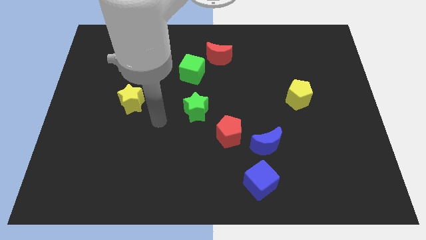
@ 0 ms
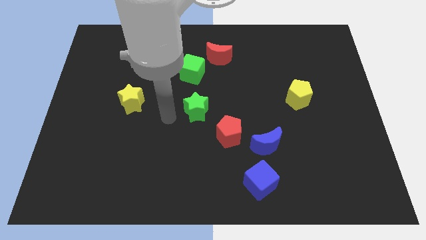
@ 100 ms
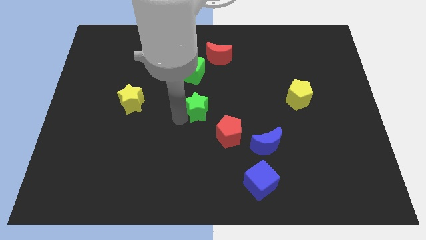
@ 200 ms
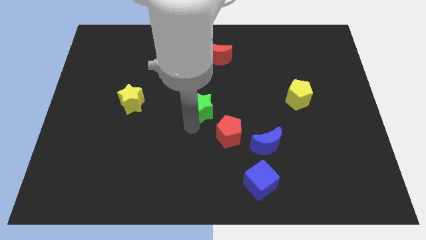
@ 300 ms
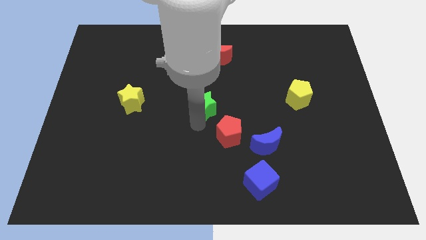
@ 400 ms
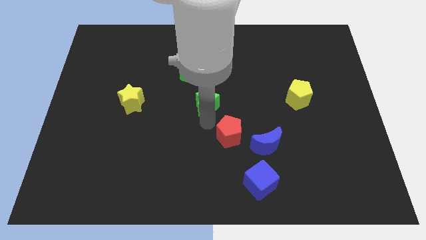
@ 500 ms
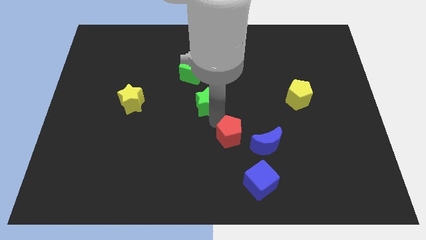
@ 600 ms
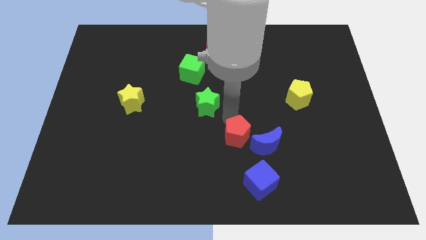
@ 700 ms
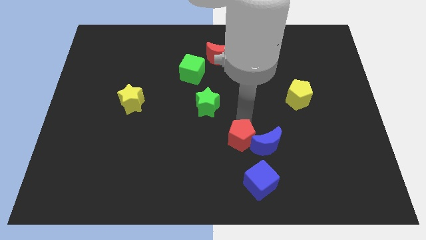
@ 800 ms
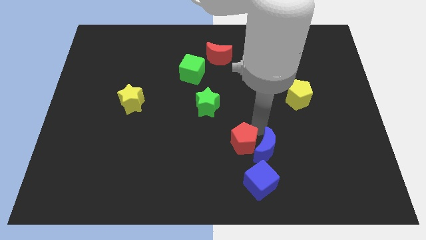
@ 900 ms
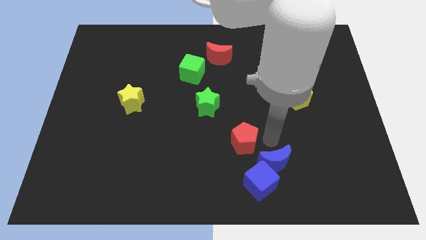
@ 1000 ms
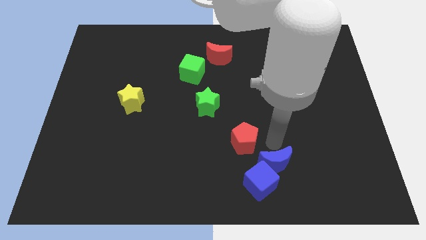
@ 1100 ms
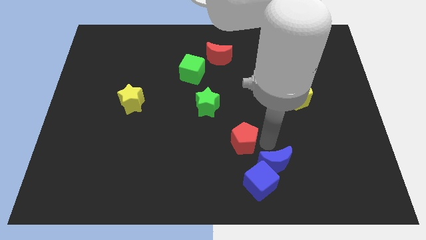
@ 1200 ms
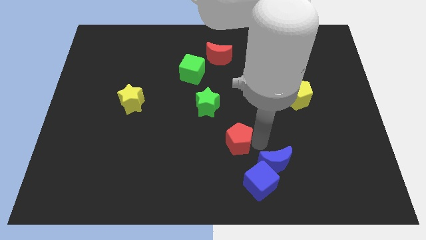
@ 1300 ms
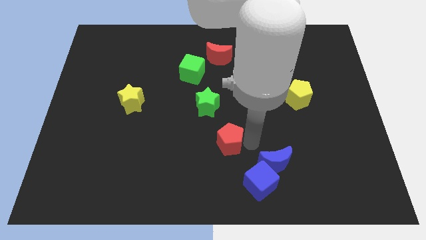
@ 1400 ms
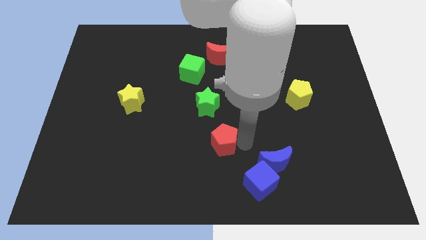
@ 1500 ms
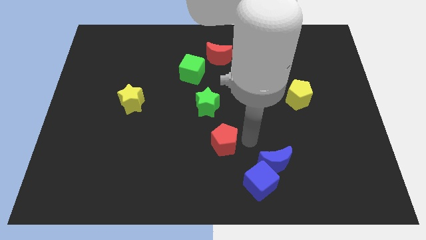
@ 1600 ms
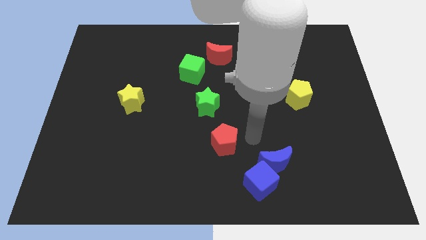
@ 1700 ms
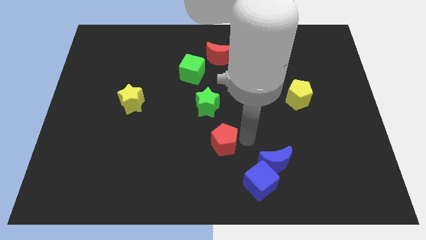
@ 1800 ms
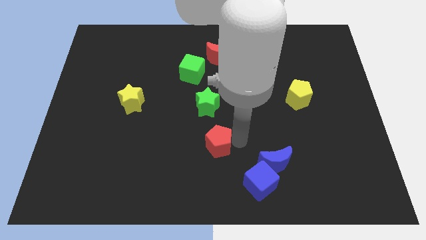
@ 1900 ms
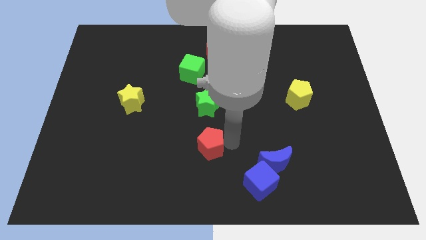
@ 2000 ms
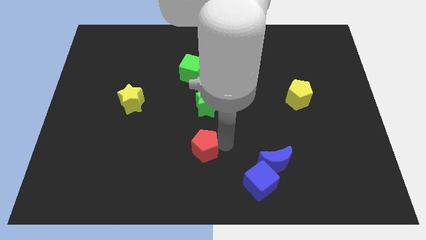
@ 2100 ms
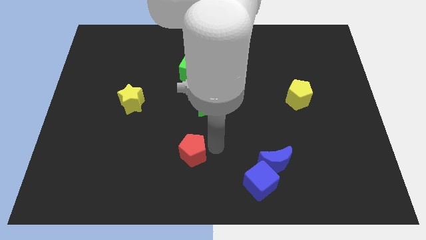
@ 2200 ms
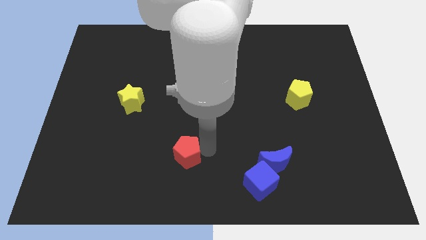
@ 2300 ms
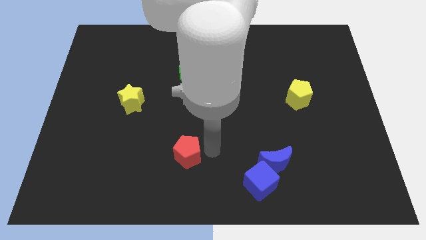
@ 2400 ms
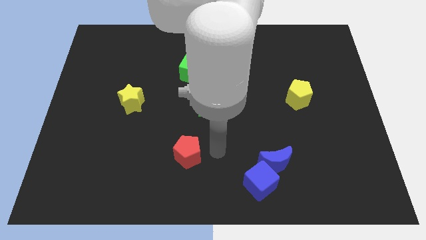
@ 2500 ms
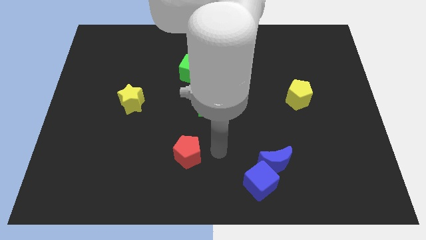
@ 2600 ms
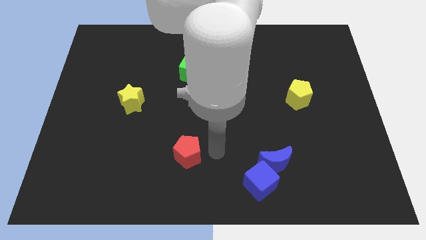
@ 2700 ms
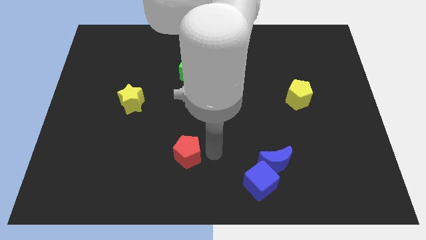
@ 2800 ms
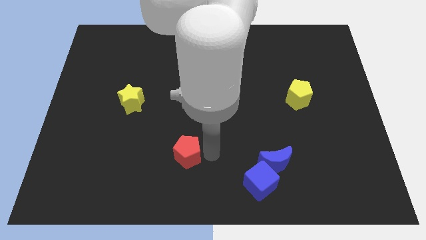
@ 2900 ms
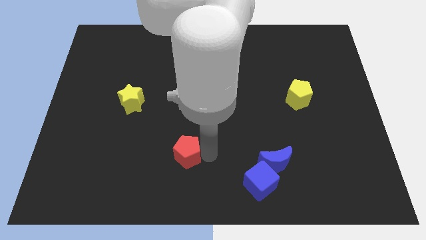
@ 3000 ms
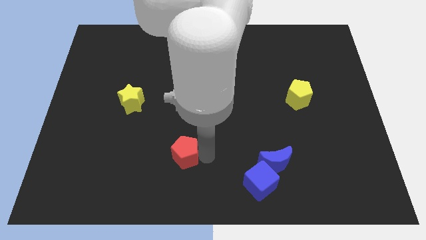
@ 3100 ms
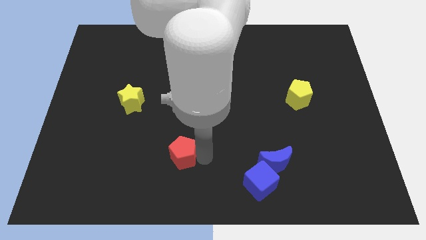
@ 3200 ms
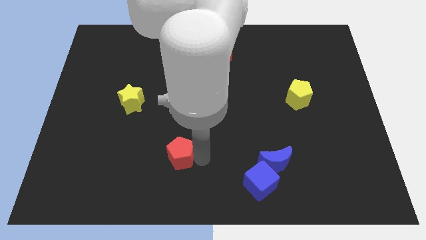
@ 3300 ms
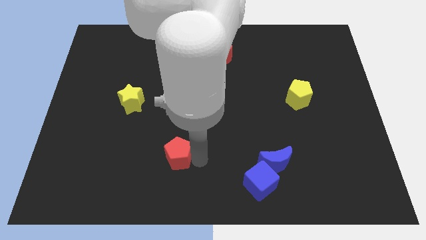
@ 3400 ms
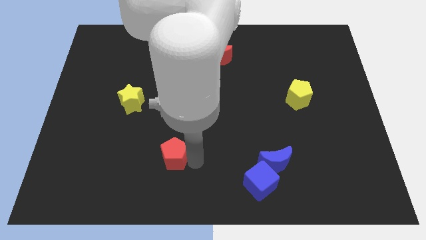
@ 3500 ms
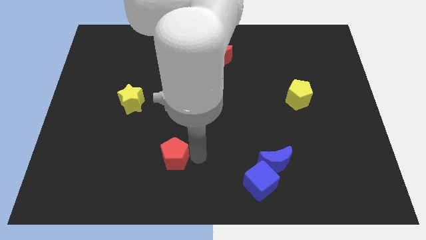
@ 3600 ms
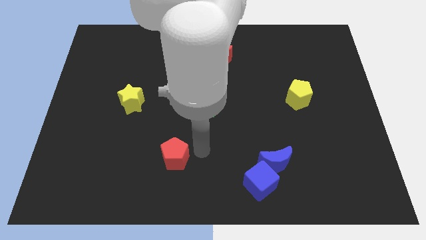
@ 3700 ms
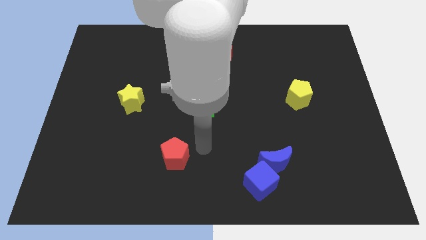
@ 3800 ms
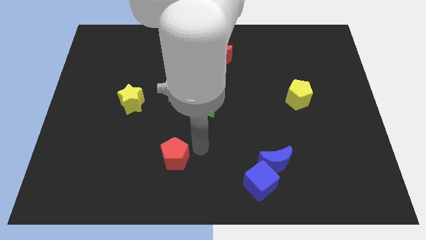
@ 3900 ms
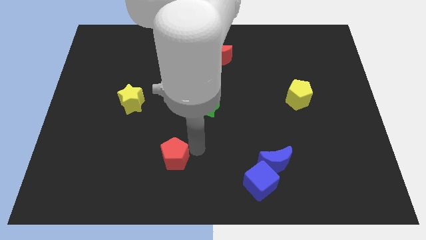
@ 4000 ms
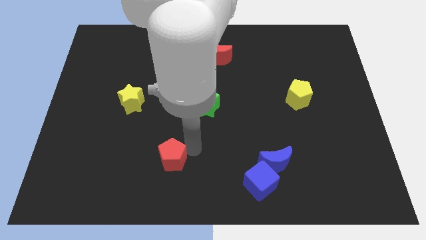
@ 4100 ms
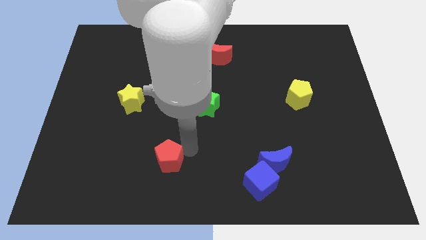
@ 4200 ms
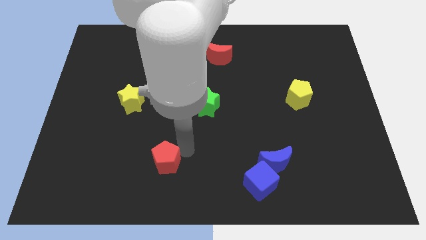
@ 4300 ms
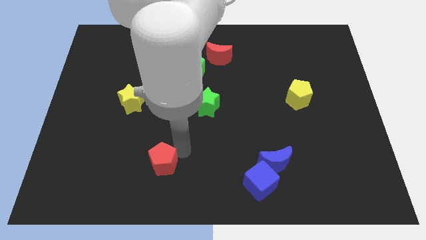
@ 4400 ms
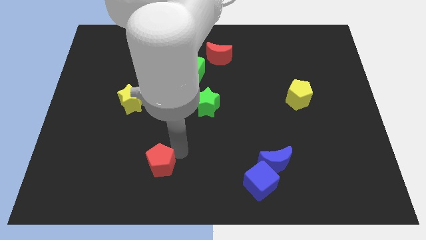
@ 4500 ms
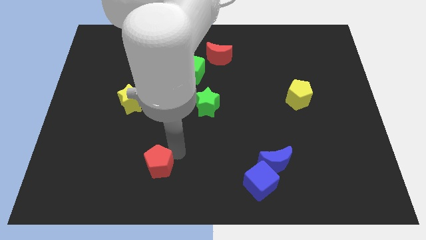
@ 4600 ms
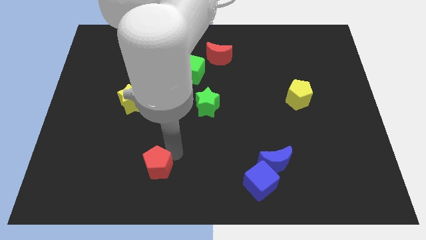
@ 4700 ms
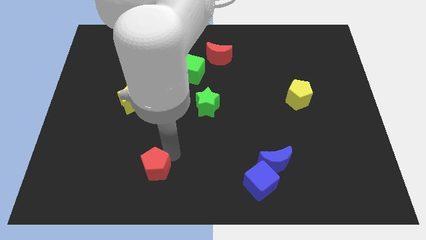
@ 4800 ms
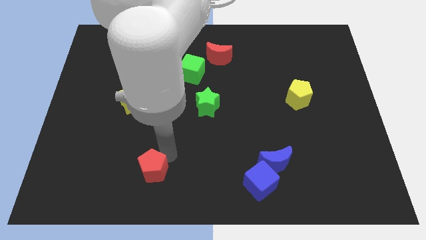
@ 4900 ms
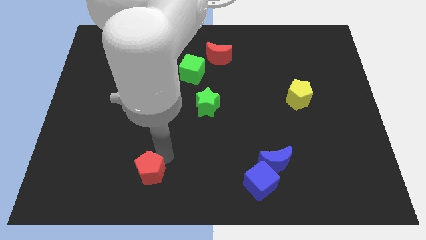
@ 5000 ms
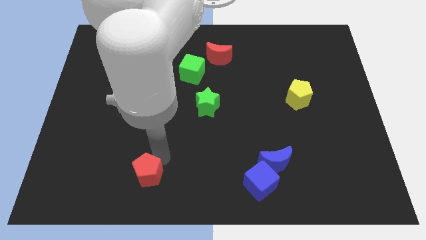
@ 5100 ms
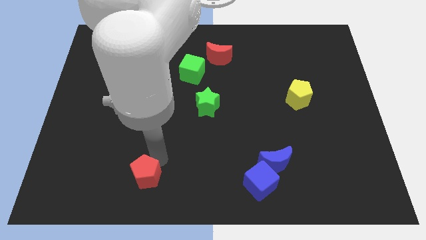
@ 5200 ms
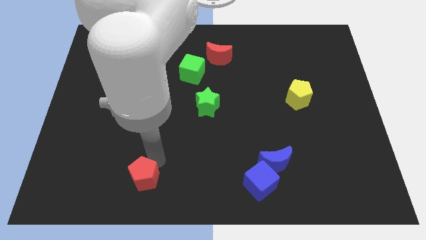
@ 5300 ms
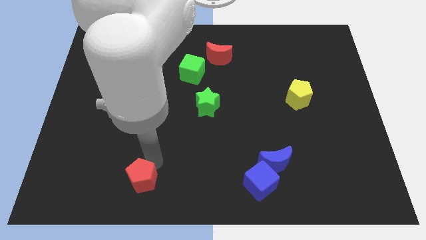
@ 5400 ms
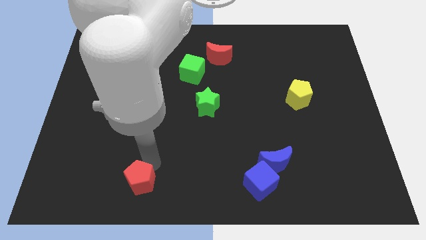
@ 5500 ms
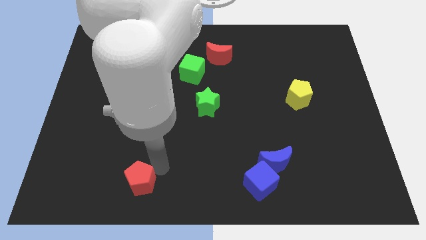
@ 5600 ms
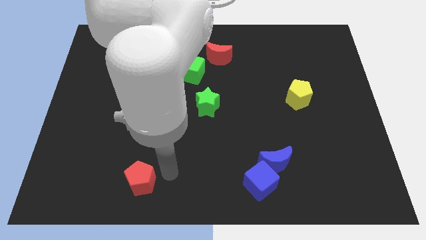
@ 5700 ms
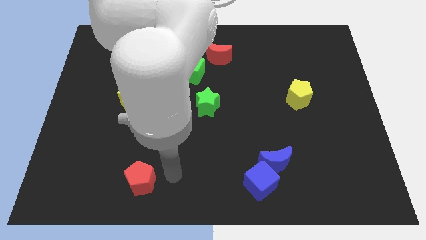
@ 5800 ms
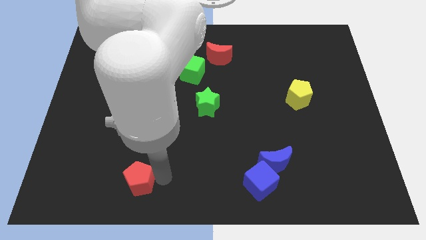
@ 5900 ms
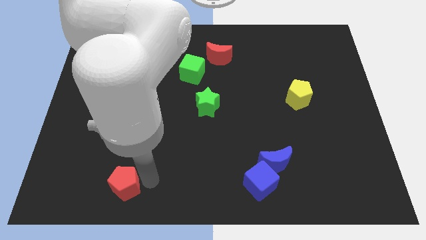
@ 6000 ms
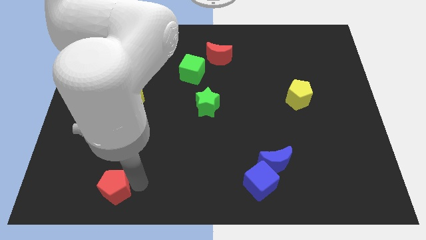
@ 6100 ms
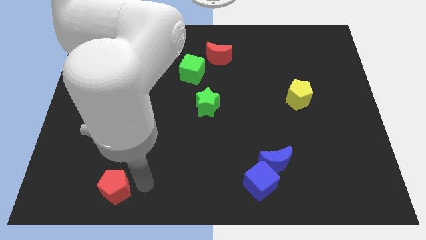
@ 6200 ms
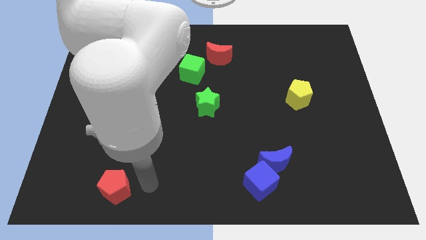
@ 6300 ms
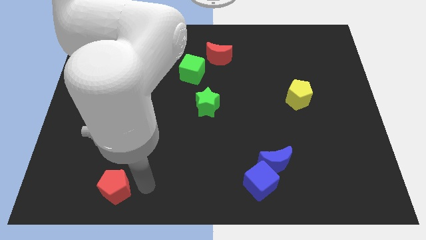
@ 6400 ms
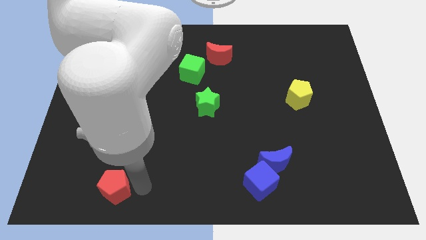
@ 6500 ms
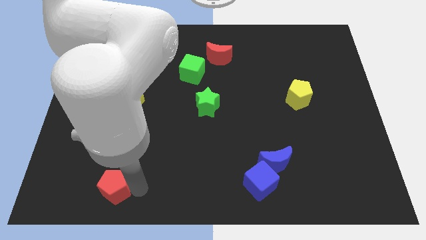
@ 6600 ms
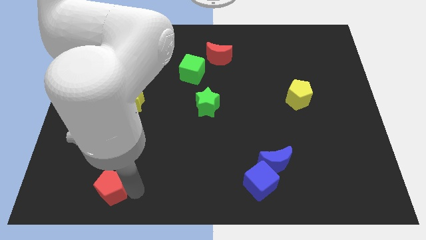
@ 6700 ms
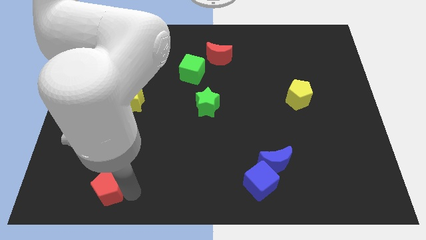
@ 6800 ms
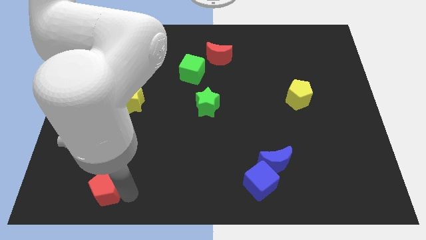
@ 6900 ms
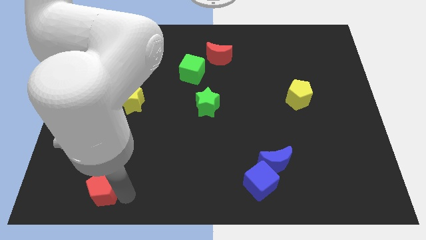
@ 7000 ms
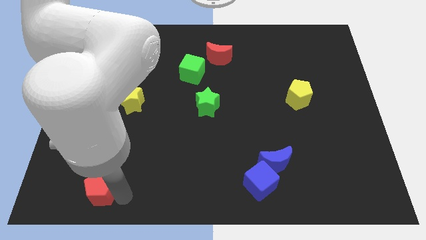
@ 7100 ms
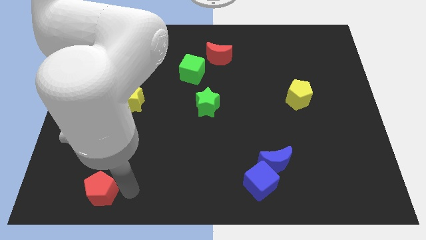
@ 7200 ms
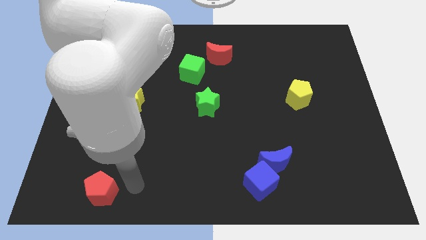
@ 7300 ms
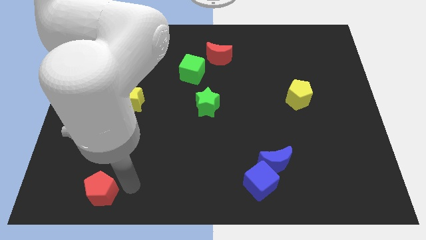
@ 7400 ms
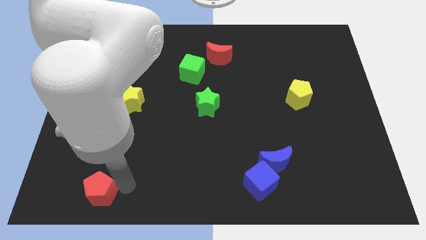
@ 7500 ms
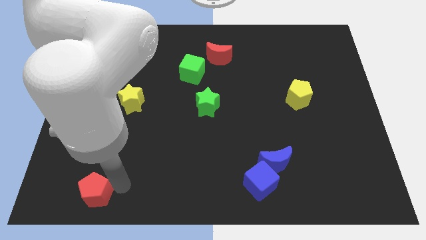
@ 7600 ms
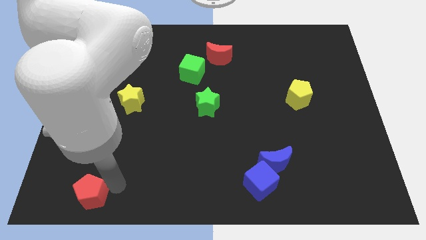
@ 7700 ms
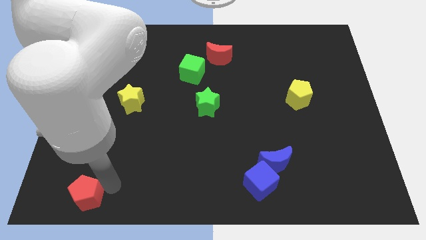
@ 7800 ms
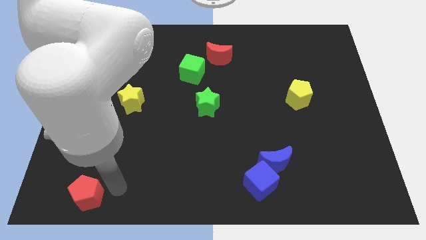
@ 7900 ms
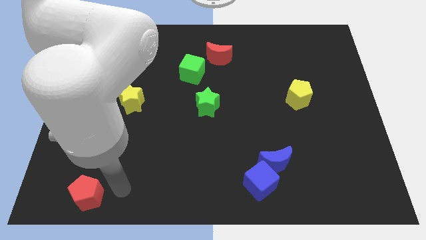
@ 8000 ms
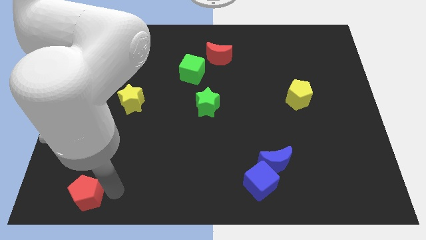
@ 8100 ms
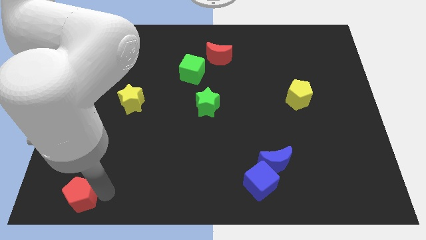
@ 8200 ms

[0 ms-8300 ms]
slide the red pentagon to the bottom left corner
